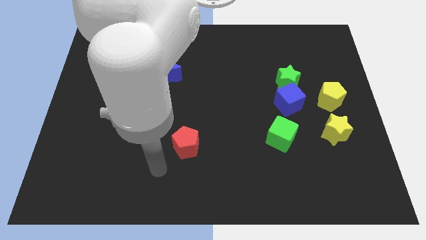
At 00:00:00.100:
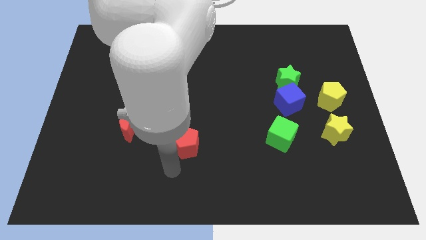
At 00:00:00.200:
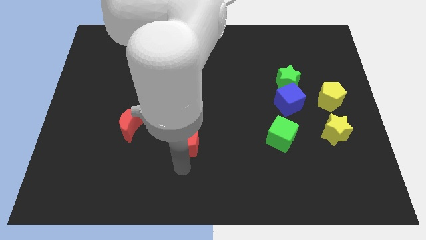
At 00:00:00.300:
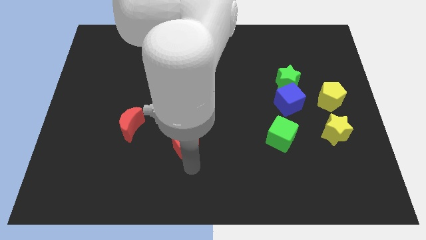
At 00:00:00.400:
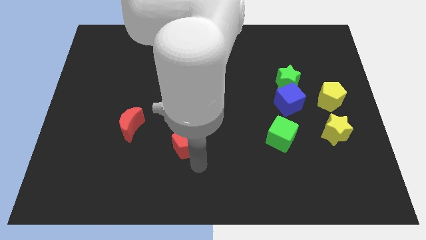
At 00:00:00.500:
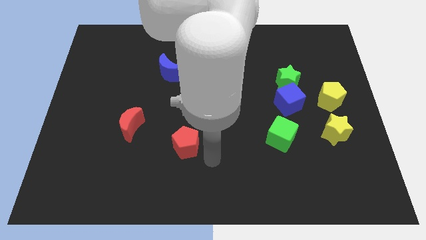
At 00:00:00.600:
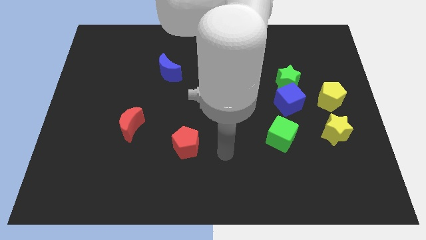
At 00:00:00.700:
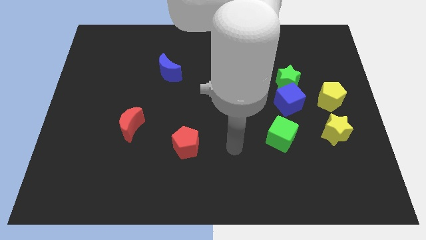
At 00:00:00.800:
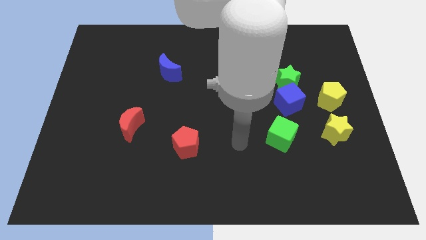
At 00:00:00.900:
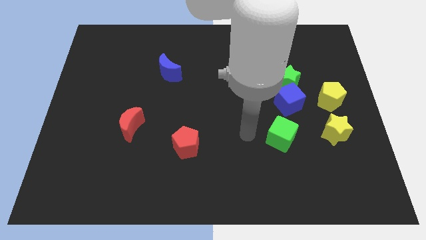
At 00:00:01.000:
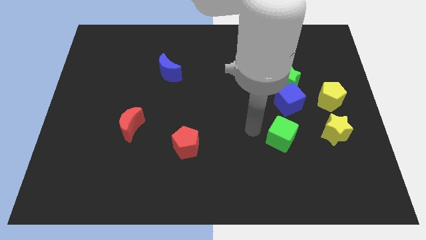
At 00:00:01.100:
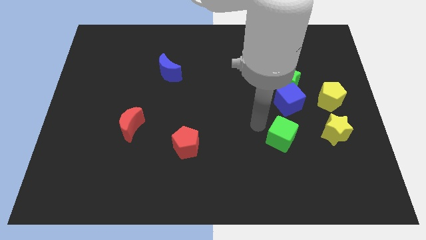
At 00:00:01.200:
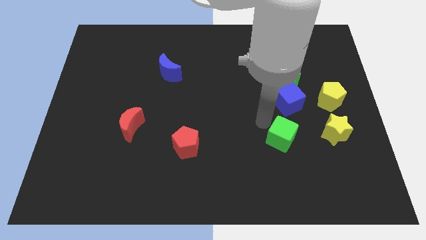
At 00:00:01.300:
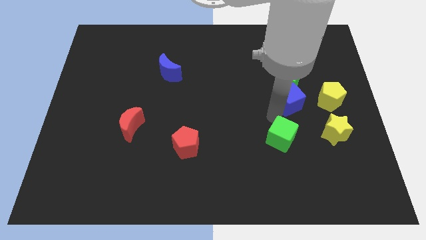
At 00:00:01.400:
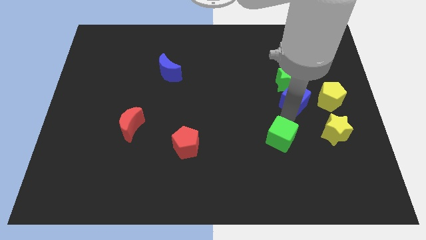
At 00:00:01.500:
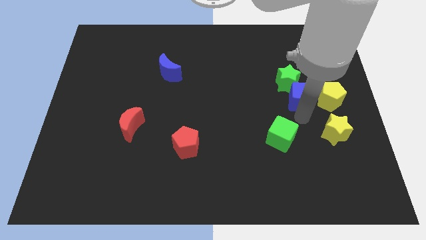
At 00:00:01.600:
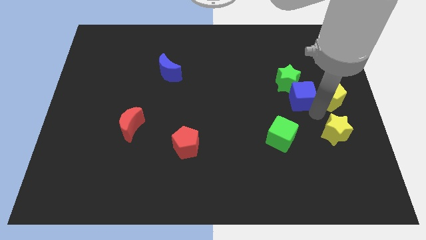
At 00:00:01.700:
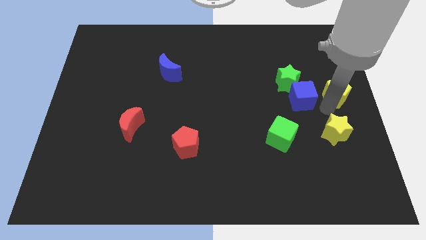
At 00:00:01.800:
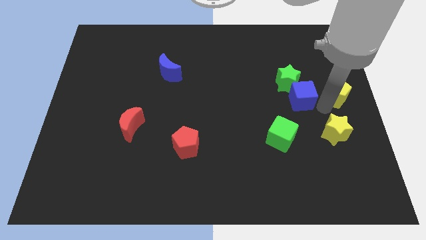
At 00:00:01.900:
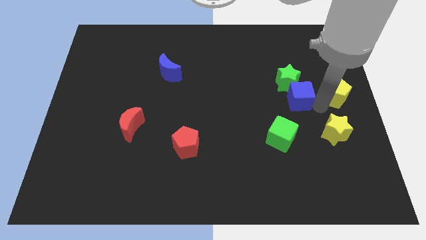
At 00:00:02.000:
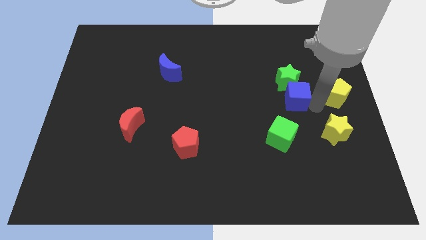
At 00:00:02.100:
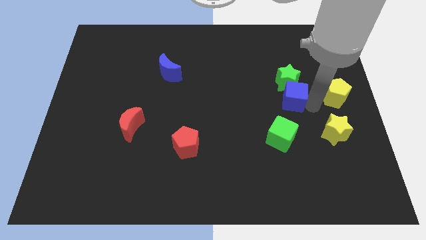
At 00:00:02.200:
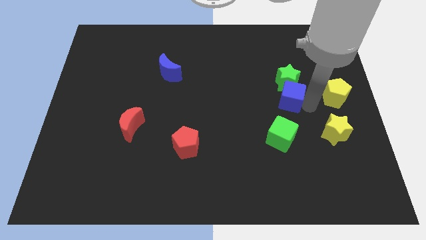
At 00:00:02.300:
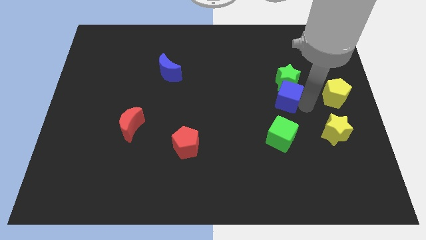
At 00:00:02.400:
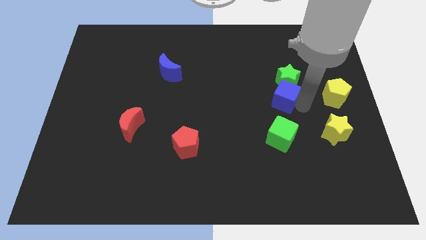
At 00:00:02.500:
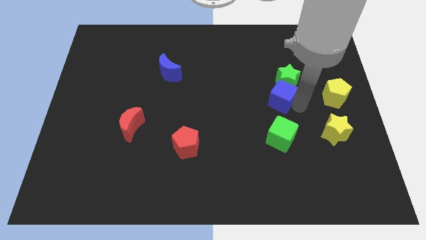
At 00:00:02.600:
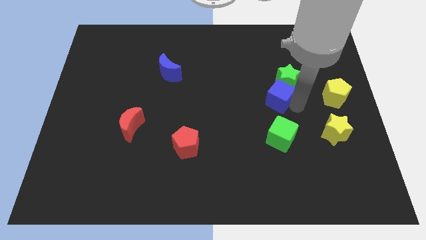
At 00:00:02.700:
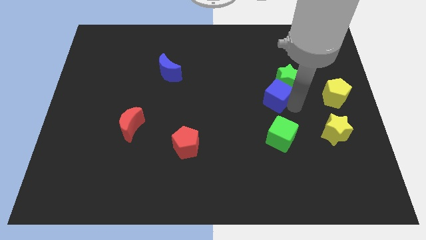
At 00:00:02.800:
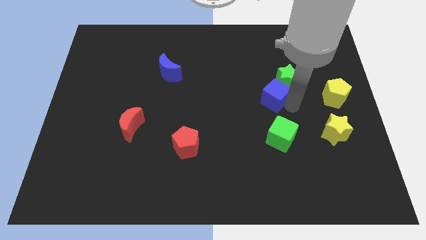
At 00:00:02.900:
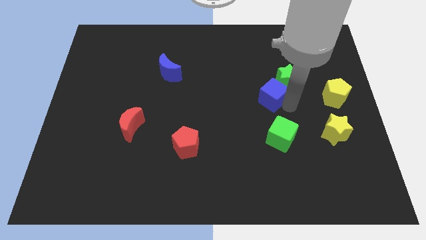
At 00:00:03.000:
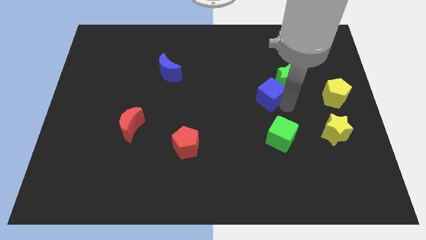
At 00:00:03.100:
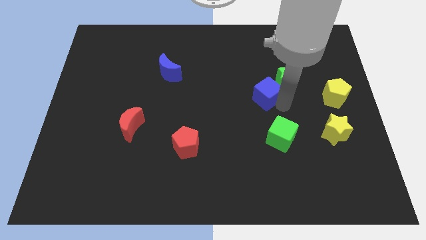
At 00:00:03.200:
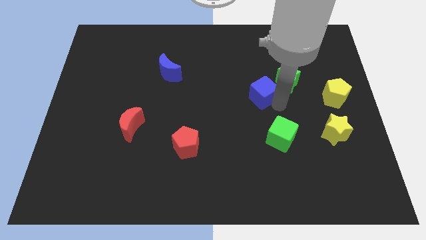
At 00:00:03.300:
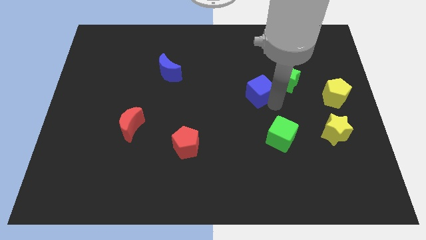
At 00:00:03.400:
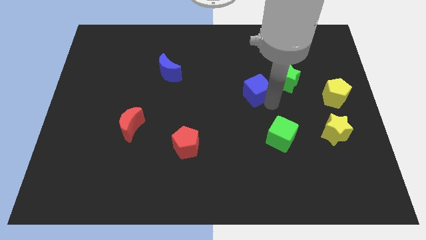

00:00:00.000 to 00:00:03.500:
slightly move the blue cube upwards and then to the left

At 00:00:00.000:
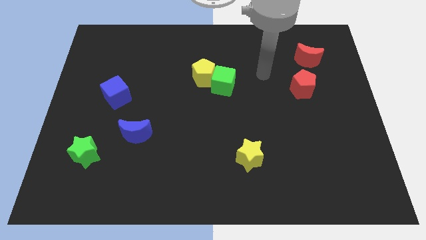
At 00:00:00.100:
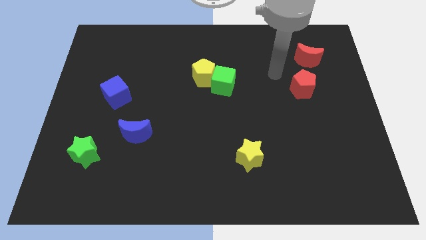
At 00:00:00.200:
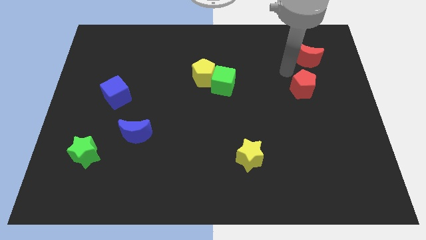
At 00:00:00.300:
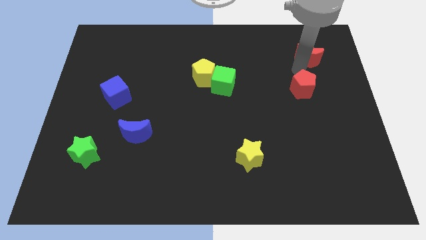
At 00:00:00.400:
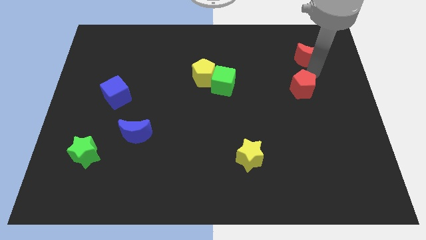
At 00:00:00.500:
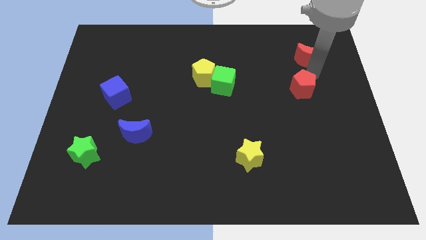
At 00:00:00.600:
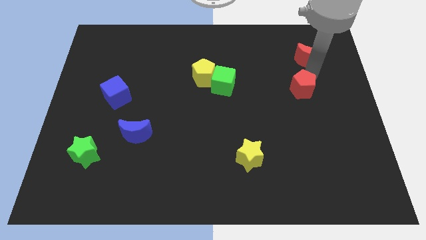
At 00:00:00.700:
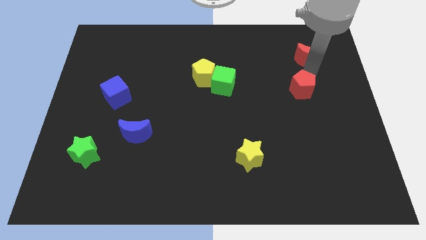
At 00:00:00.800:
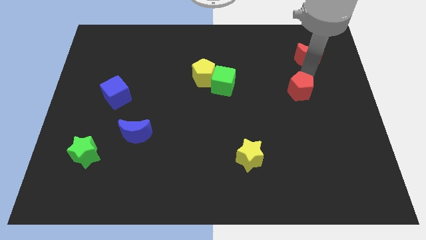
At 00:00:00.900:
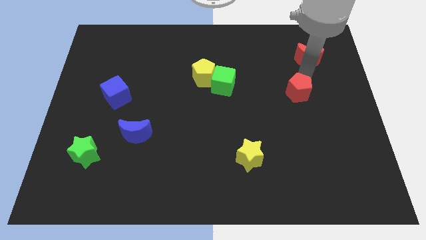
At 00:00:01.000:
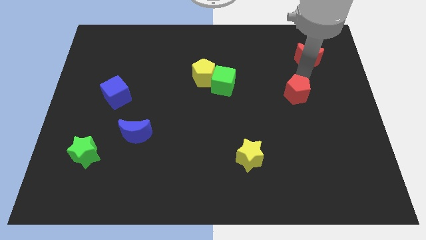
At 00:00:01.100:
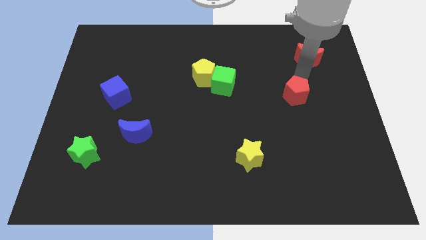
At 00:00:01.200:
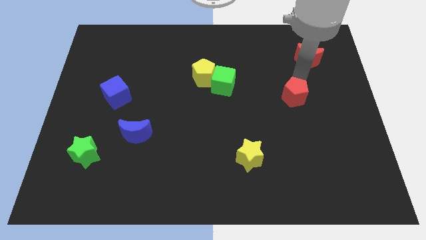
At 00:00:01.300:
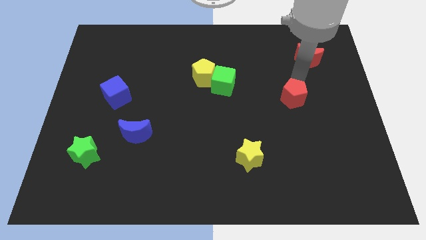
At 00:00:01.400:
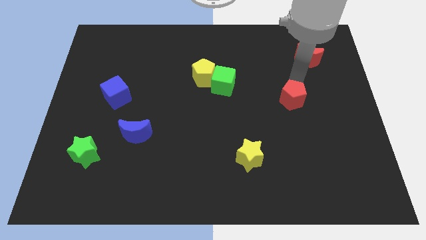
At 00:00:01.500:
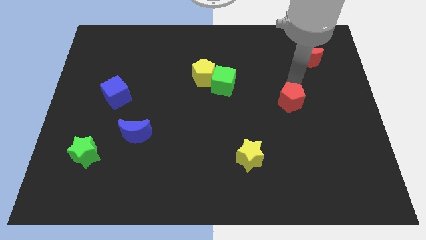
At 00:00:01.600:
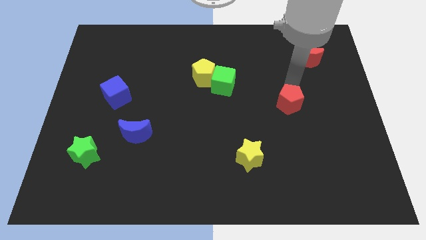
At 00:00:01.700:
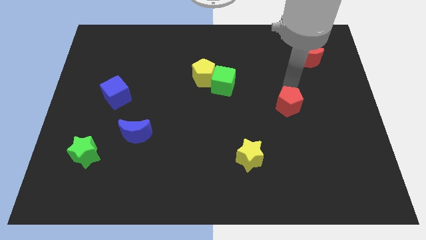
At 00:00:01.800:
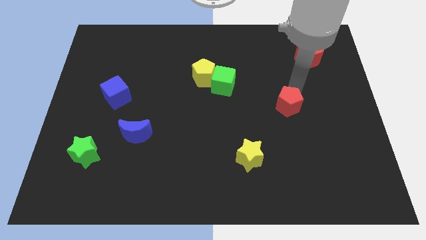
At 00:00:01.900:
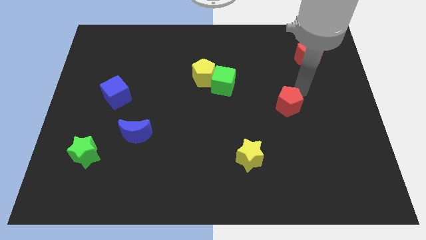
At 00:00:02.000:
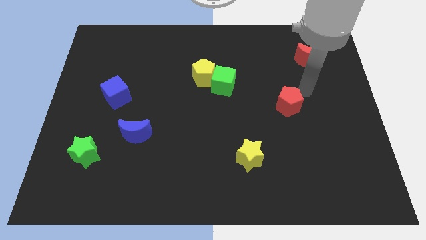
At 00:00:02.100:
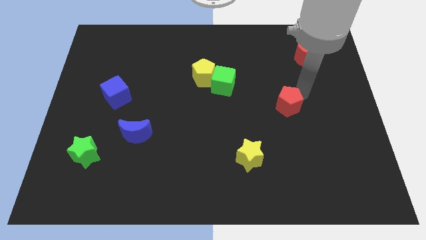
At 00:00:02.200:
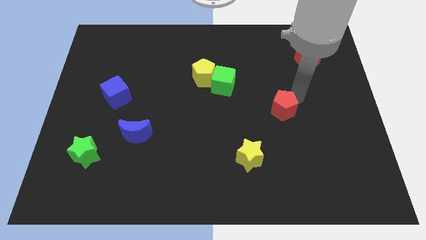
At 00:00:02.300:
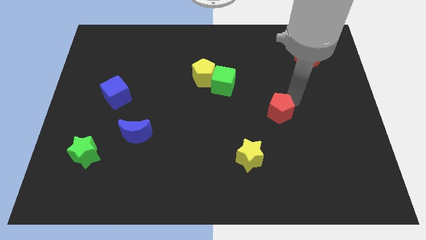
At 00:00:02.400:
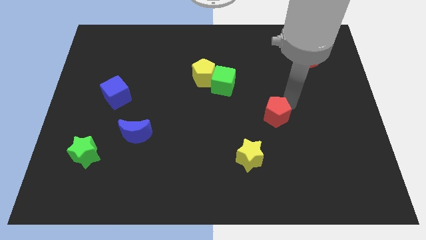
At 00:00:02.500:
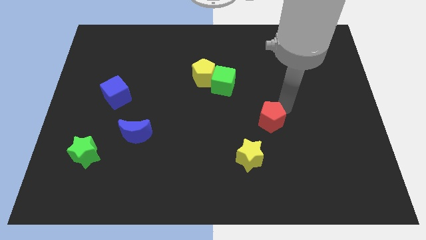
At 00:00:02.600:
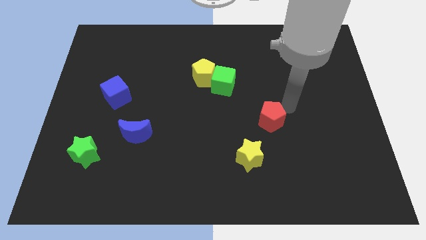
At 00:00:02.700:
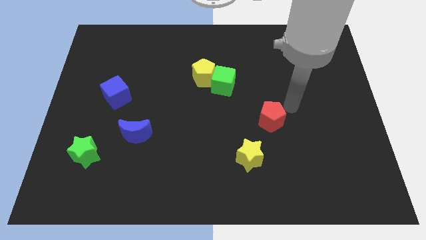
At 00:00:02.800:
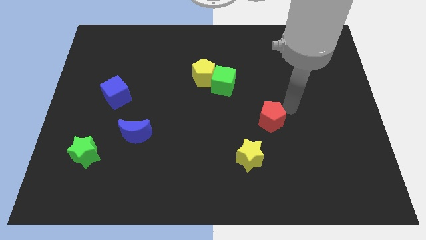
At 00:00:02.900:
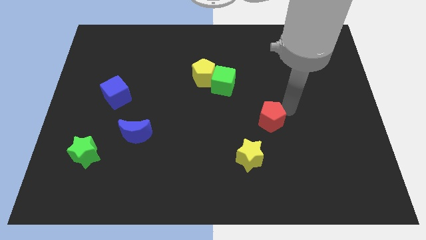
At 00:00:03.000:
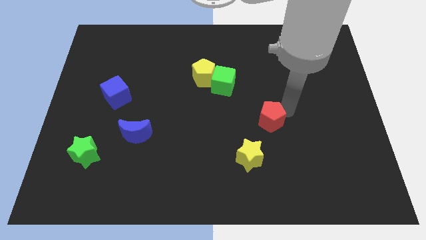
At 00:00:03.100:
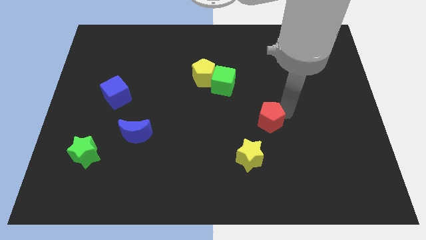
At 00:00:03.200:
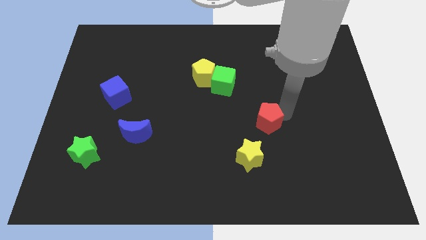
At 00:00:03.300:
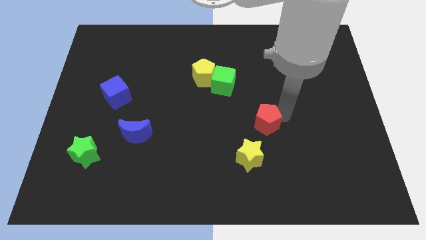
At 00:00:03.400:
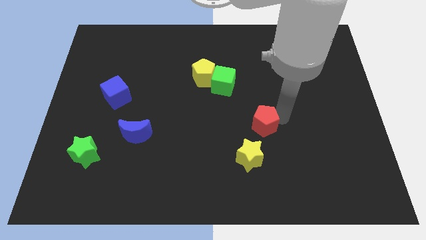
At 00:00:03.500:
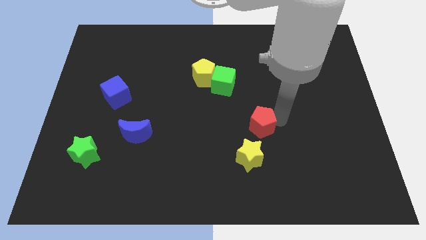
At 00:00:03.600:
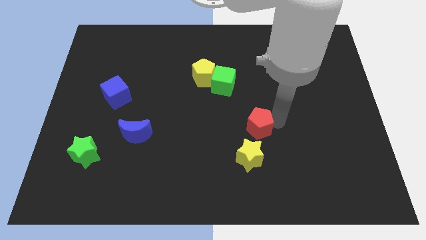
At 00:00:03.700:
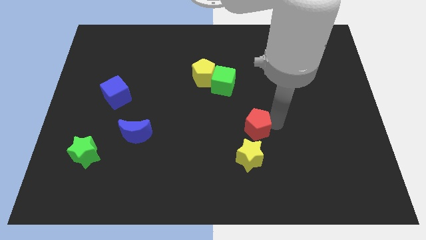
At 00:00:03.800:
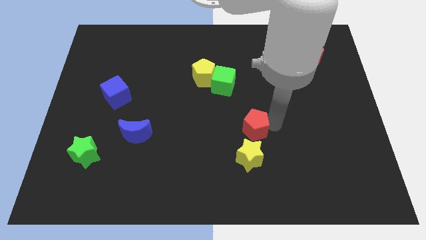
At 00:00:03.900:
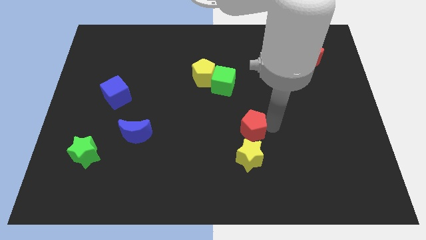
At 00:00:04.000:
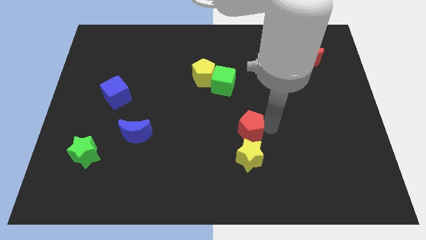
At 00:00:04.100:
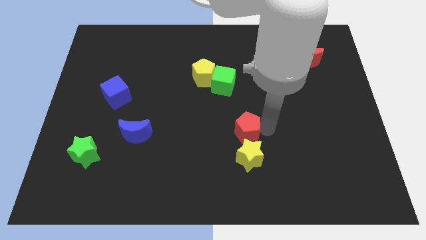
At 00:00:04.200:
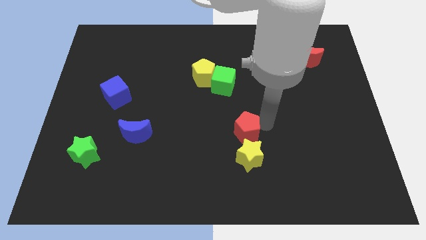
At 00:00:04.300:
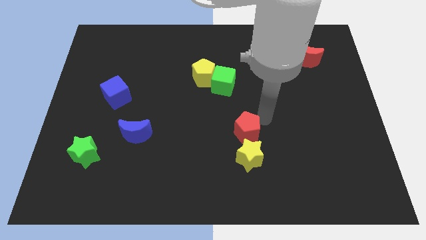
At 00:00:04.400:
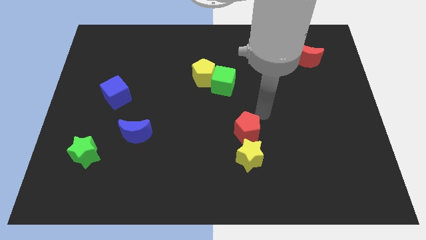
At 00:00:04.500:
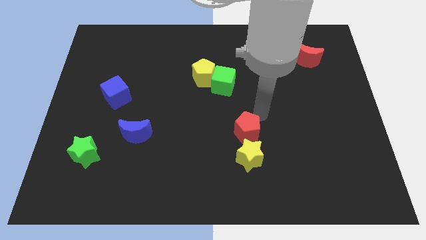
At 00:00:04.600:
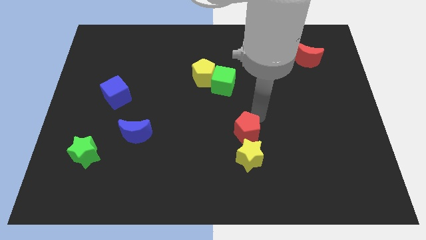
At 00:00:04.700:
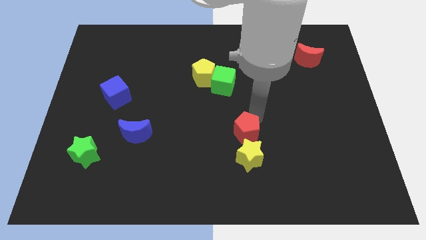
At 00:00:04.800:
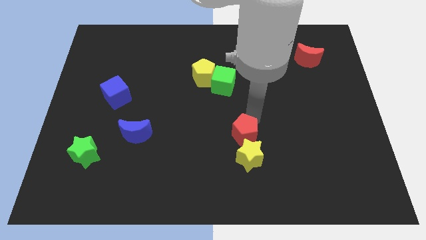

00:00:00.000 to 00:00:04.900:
move the red pentagon down and left
